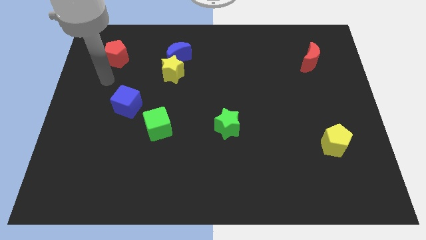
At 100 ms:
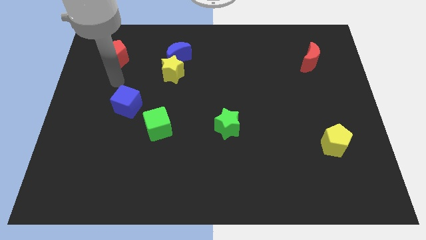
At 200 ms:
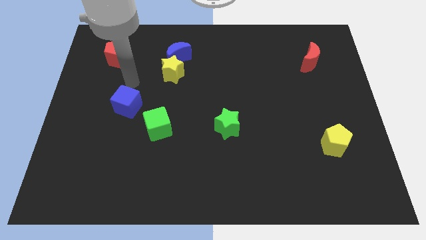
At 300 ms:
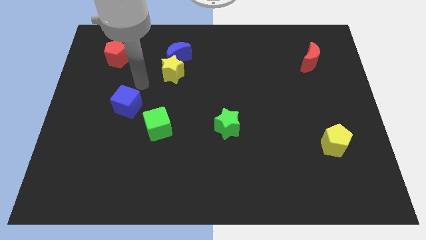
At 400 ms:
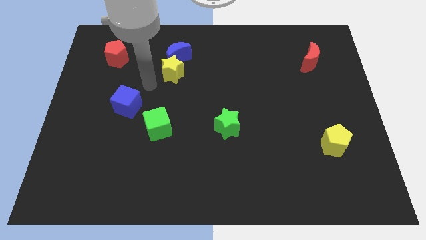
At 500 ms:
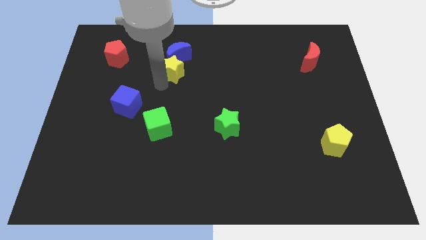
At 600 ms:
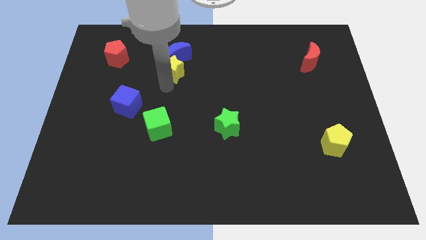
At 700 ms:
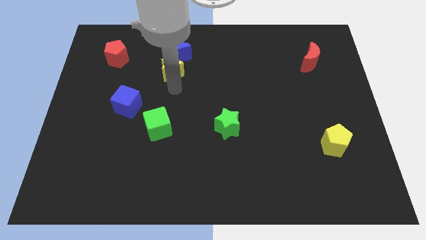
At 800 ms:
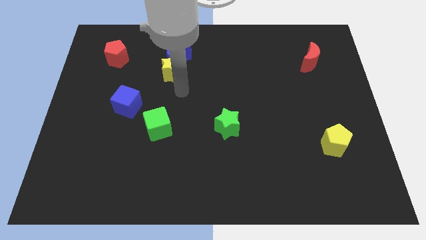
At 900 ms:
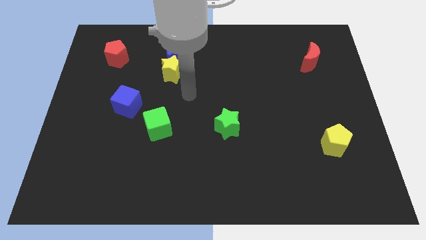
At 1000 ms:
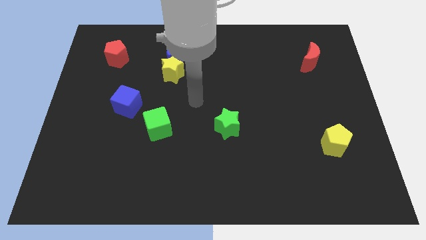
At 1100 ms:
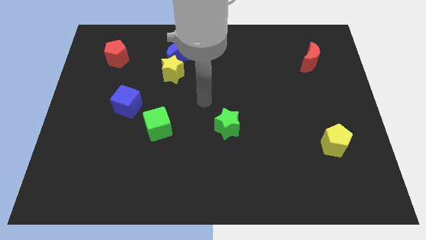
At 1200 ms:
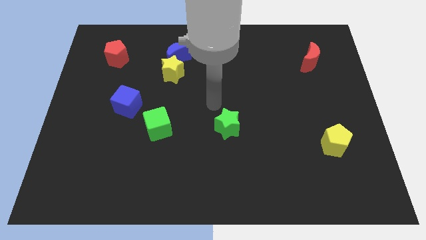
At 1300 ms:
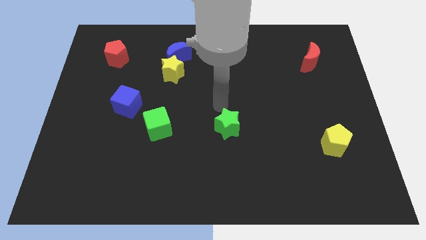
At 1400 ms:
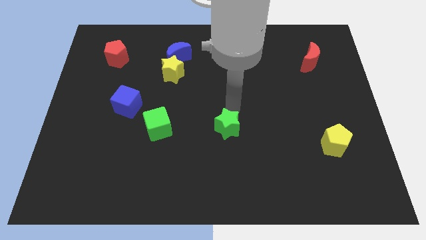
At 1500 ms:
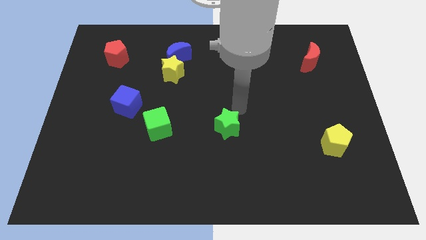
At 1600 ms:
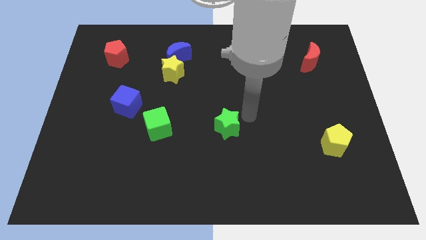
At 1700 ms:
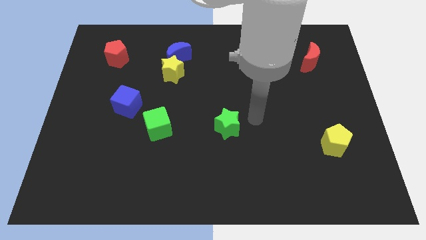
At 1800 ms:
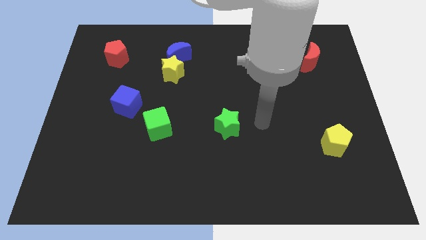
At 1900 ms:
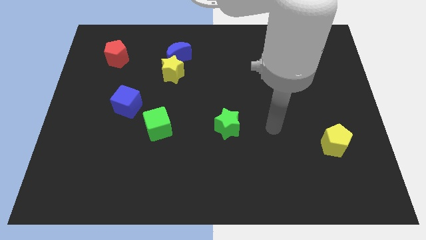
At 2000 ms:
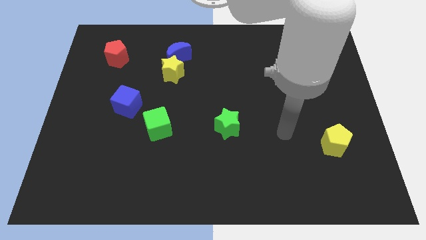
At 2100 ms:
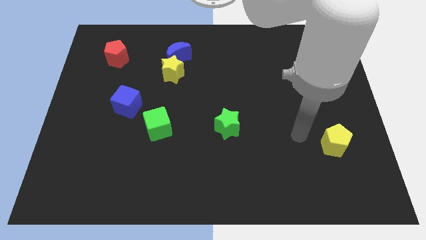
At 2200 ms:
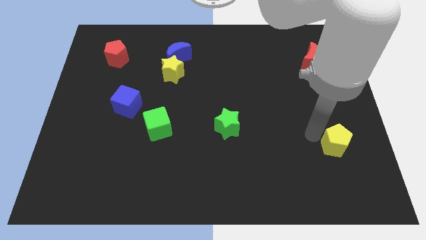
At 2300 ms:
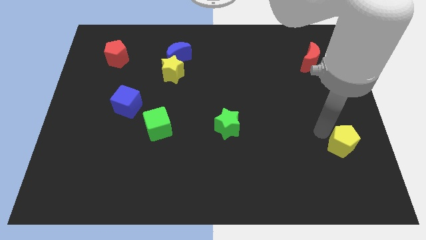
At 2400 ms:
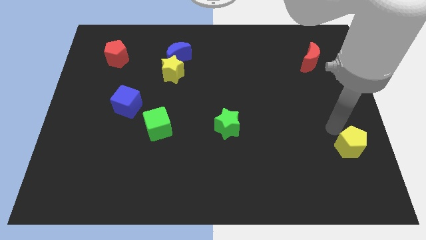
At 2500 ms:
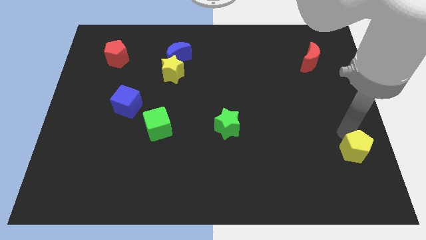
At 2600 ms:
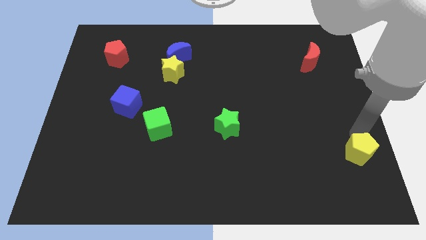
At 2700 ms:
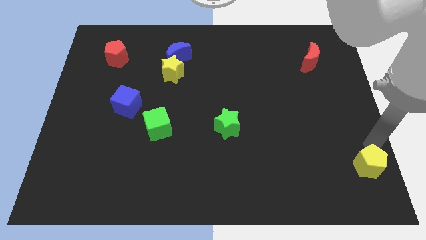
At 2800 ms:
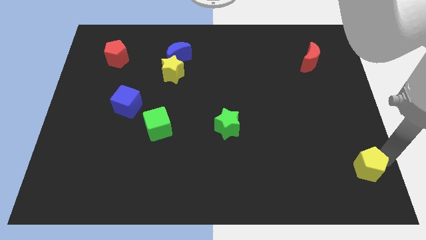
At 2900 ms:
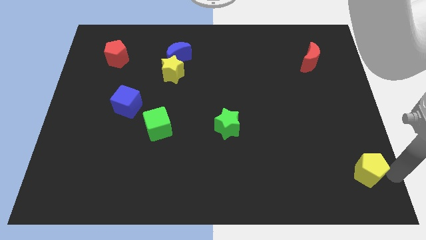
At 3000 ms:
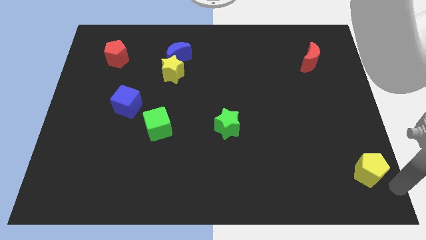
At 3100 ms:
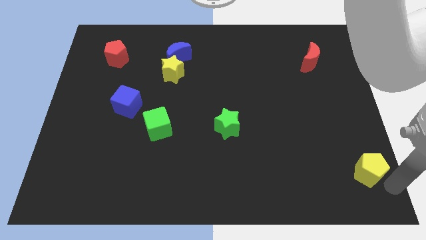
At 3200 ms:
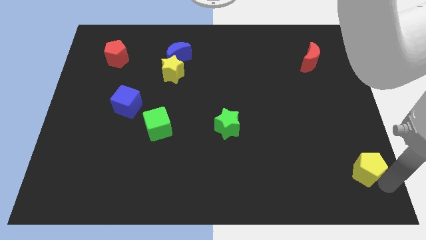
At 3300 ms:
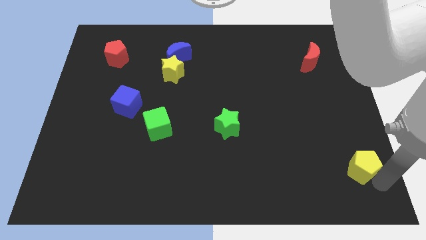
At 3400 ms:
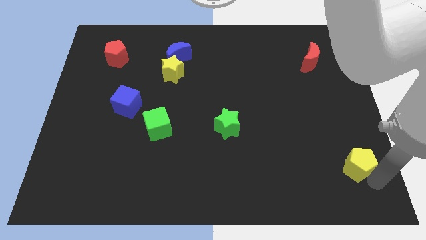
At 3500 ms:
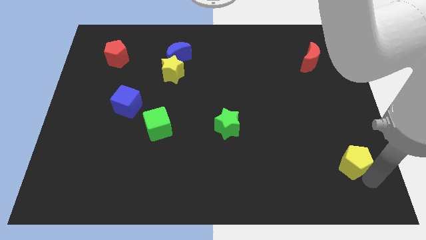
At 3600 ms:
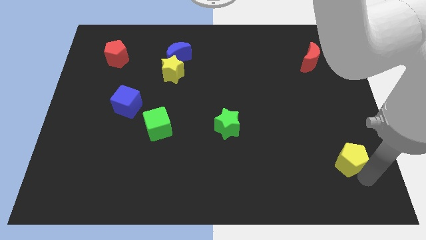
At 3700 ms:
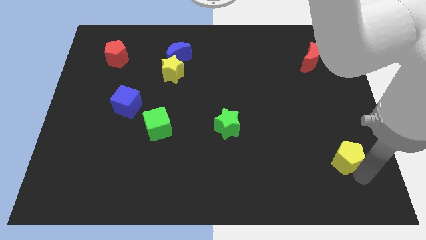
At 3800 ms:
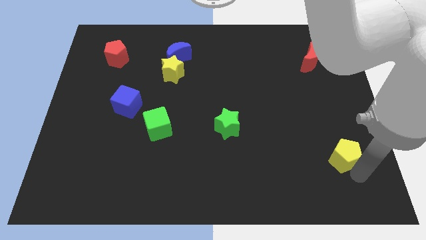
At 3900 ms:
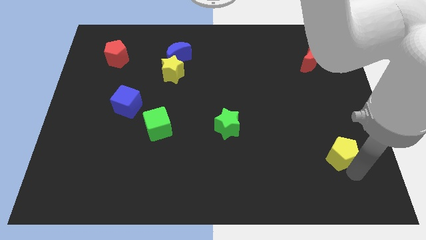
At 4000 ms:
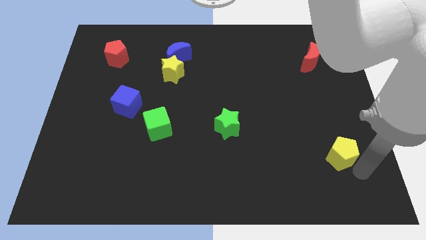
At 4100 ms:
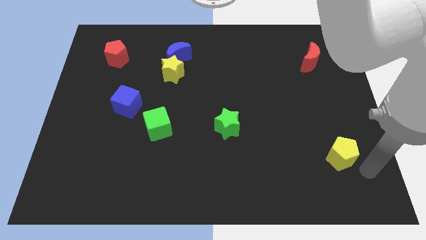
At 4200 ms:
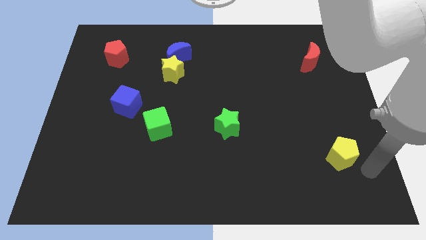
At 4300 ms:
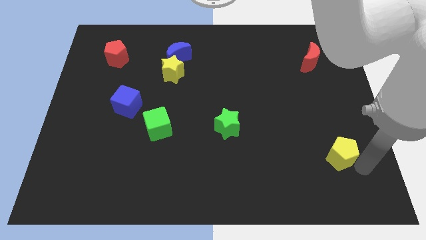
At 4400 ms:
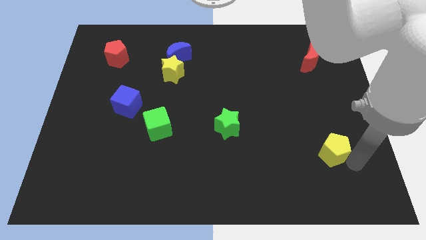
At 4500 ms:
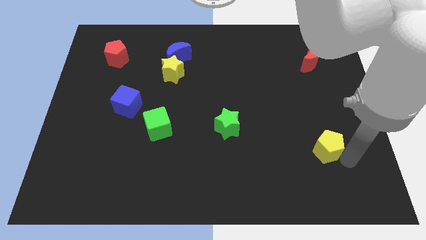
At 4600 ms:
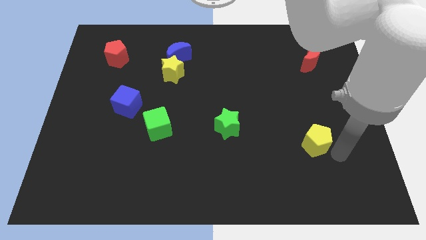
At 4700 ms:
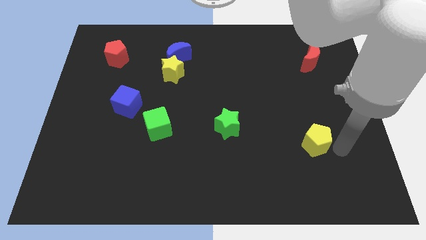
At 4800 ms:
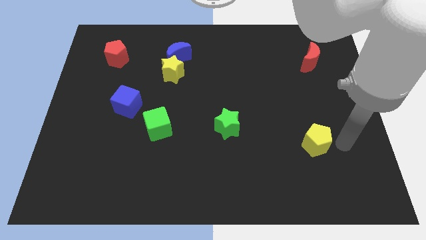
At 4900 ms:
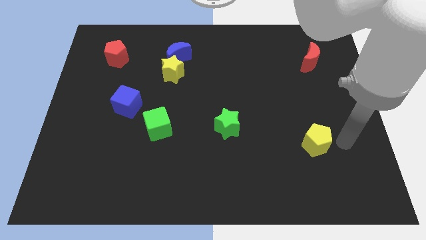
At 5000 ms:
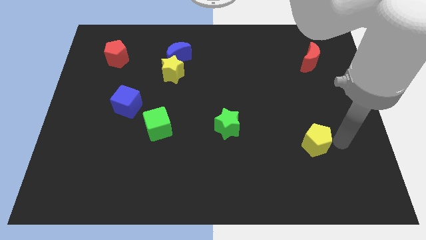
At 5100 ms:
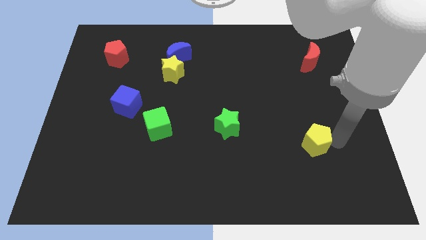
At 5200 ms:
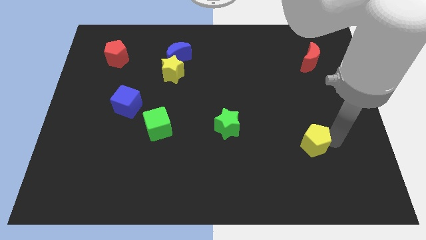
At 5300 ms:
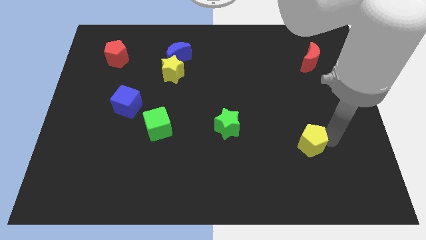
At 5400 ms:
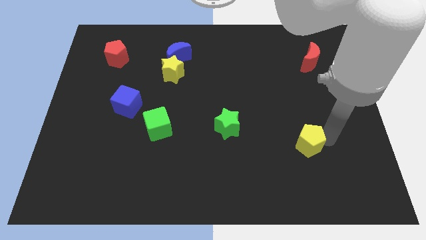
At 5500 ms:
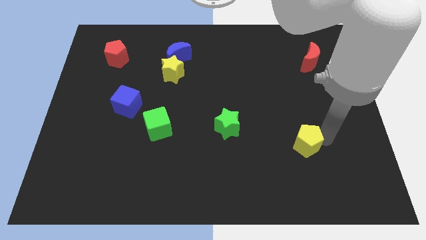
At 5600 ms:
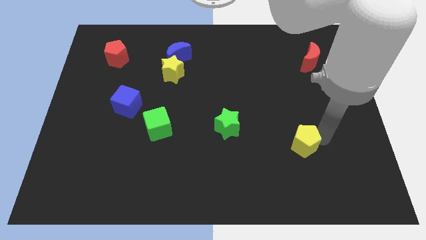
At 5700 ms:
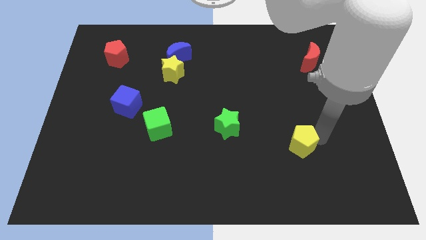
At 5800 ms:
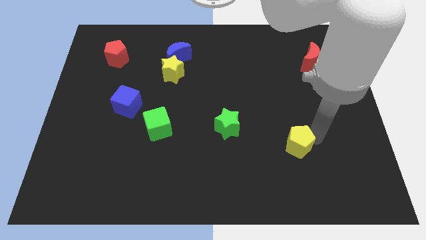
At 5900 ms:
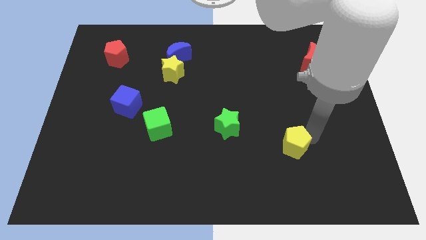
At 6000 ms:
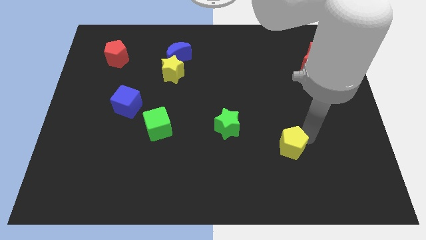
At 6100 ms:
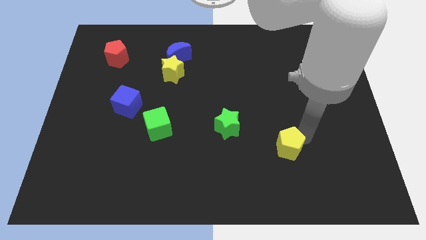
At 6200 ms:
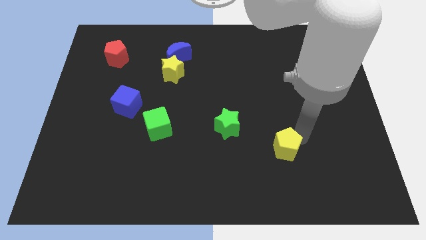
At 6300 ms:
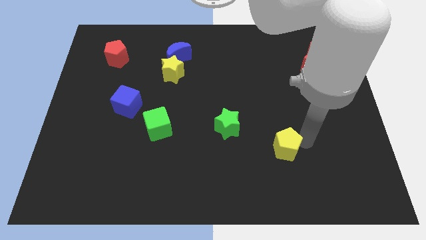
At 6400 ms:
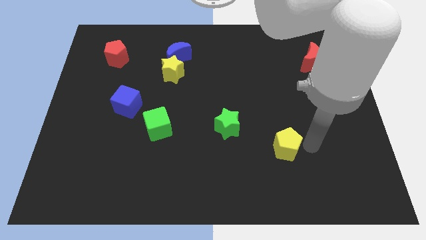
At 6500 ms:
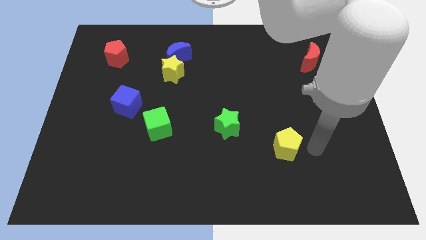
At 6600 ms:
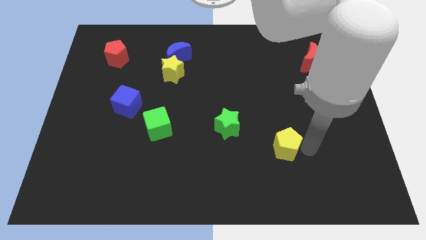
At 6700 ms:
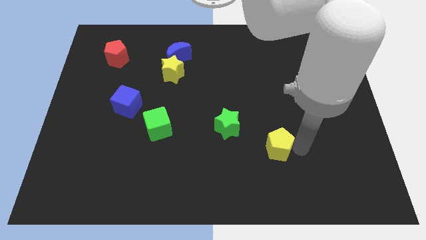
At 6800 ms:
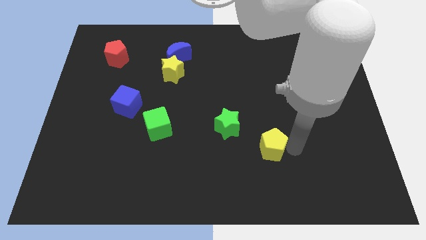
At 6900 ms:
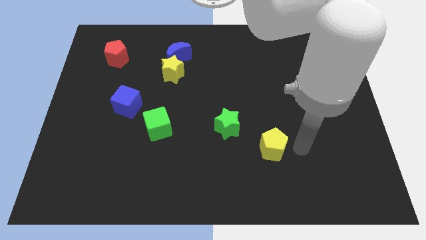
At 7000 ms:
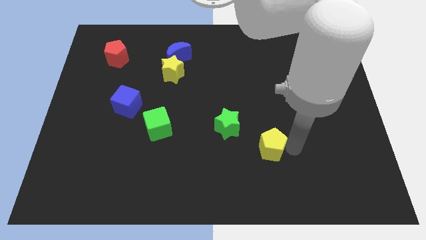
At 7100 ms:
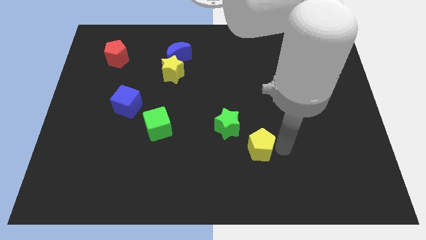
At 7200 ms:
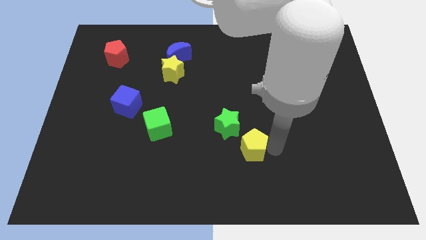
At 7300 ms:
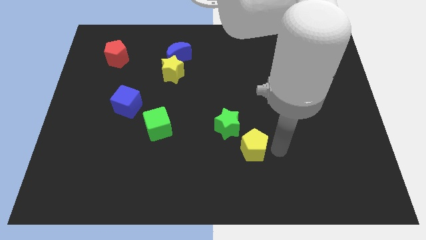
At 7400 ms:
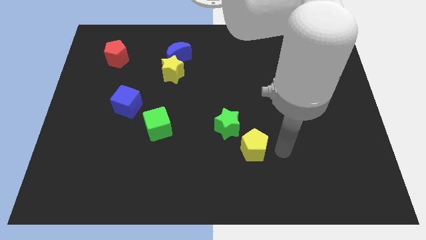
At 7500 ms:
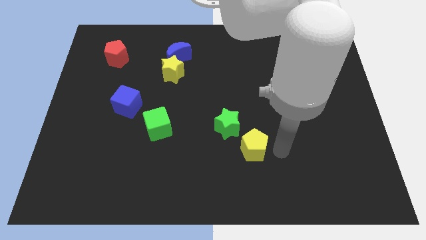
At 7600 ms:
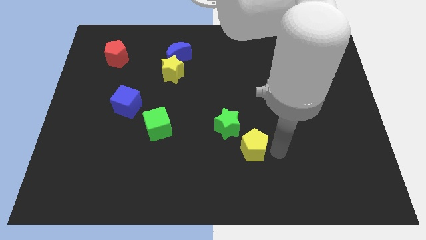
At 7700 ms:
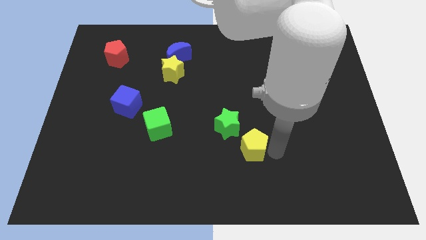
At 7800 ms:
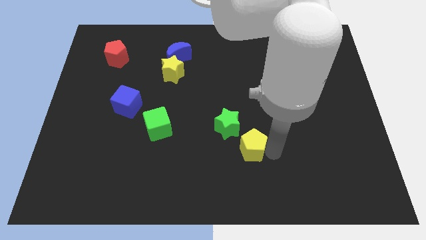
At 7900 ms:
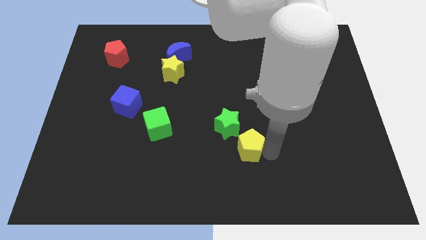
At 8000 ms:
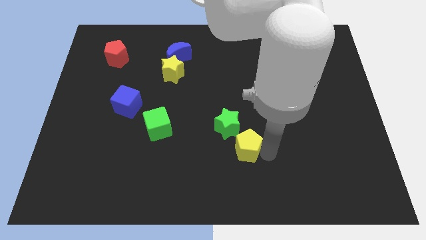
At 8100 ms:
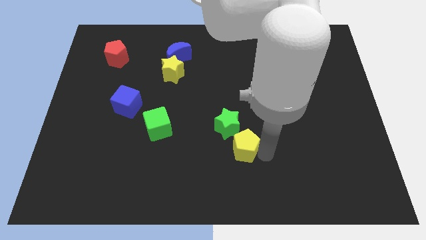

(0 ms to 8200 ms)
push the yellow pentagon left
